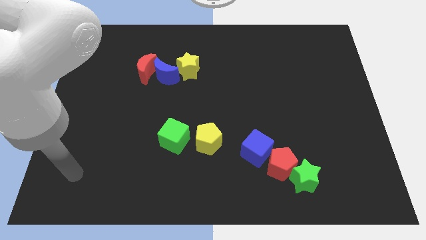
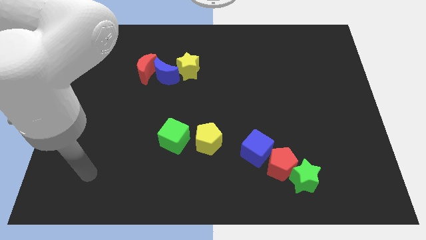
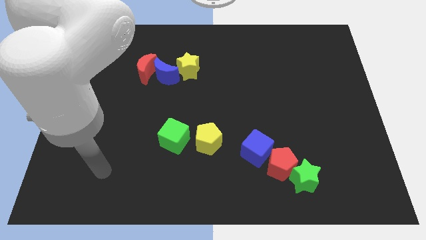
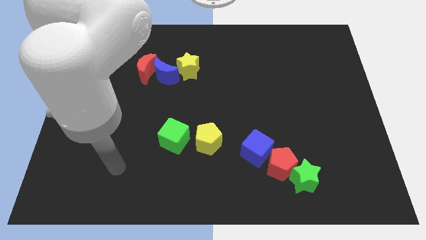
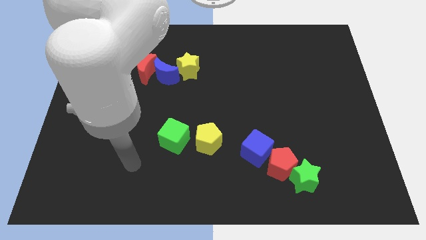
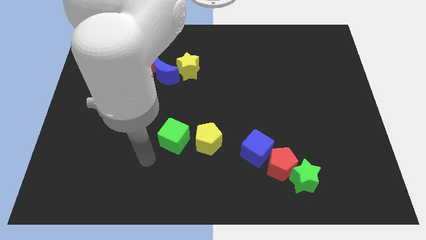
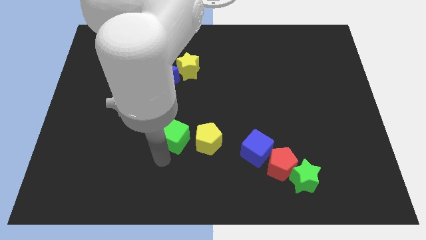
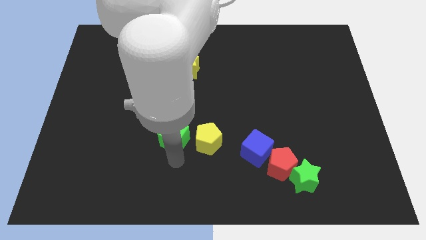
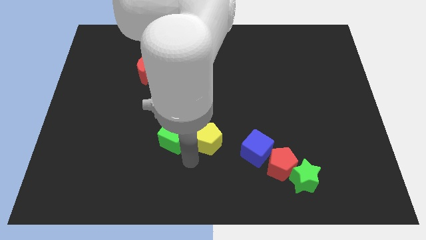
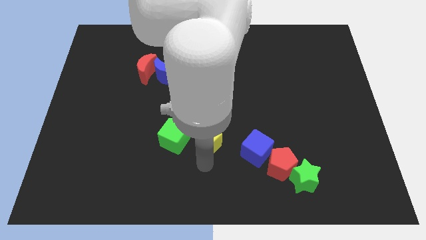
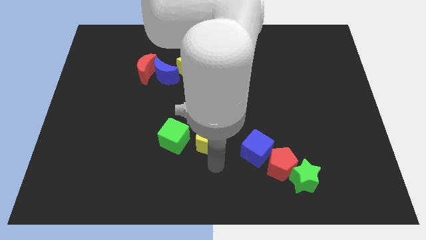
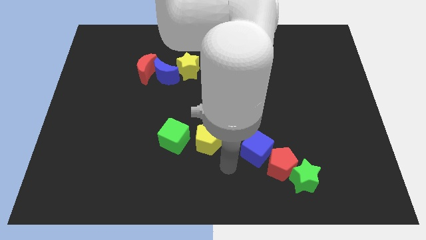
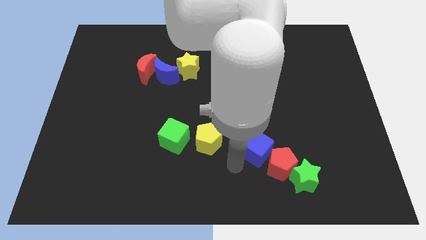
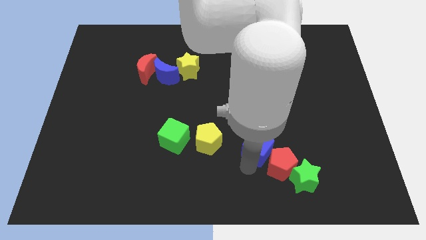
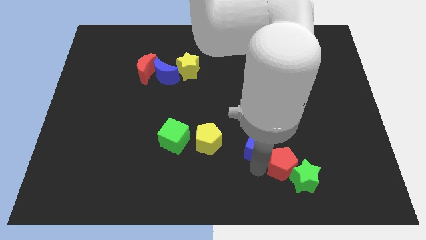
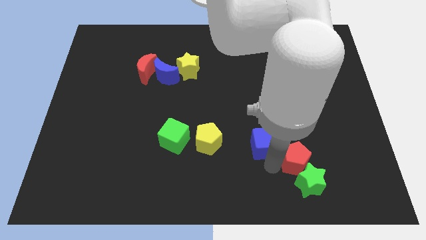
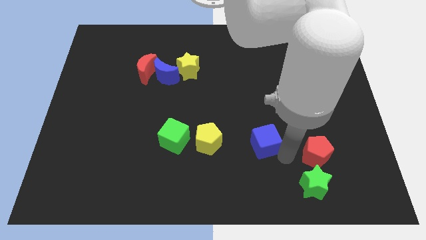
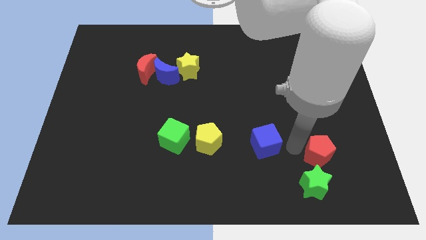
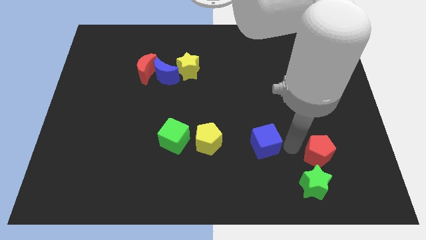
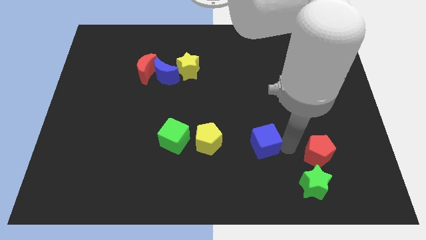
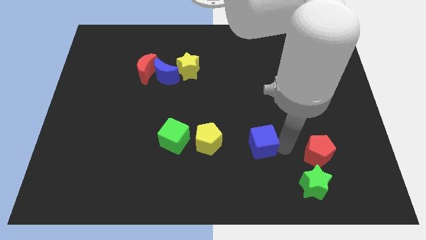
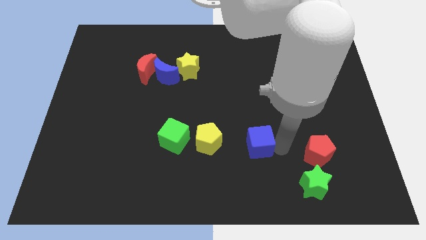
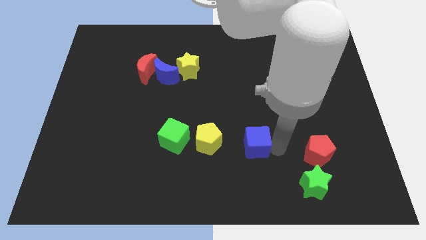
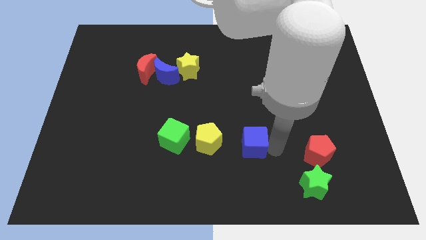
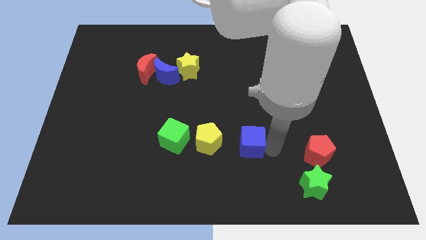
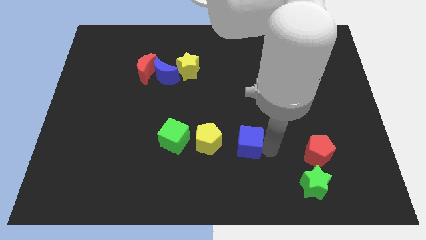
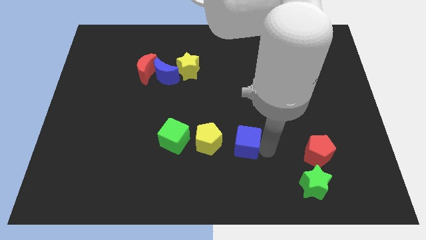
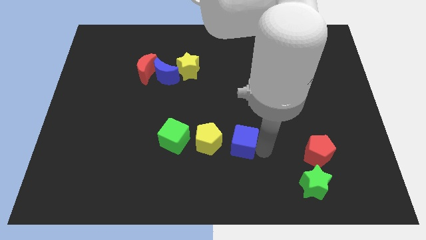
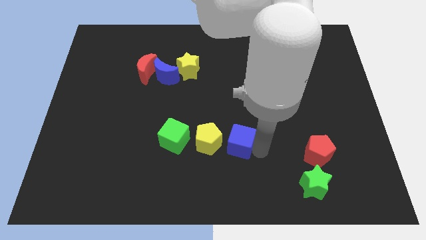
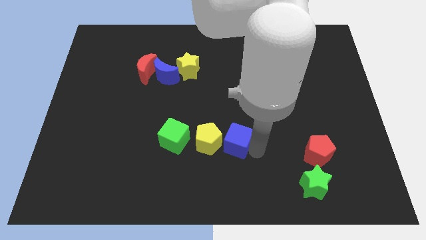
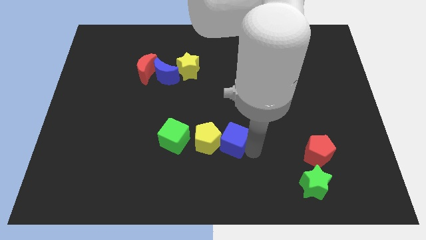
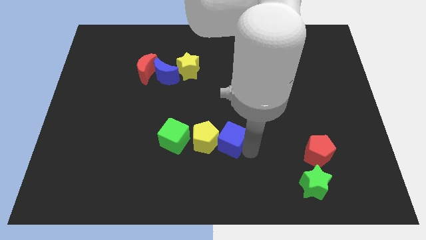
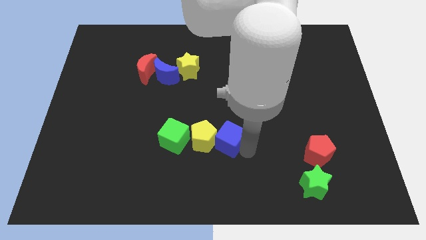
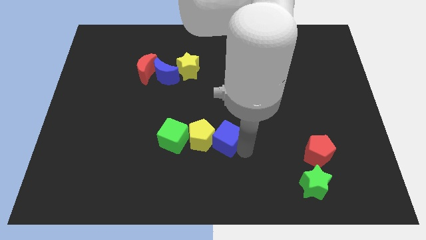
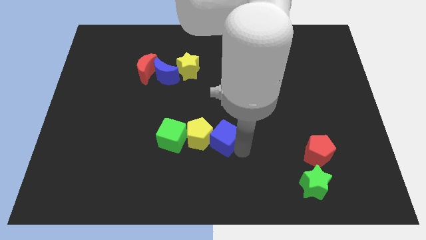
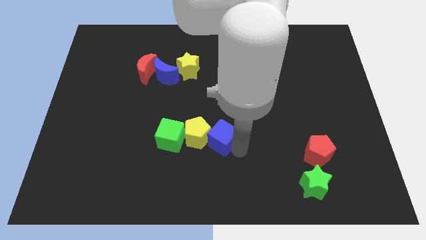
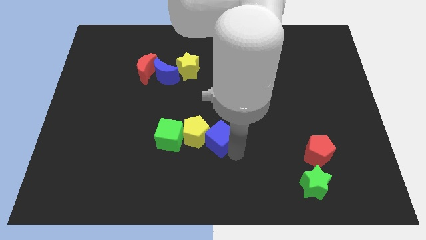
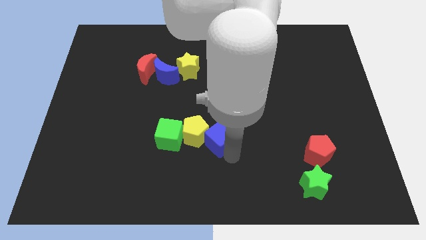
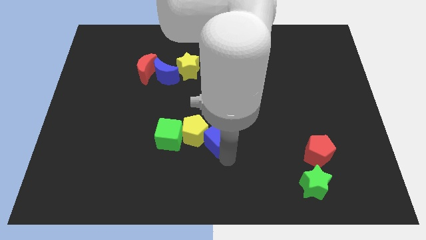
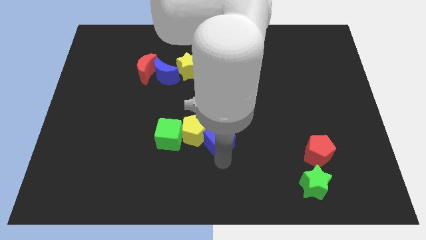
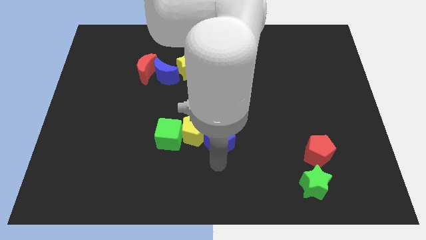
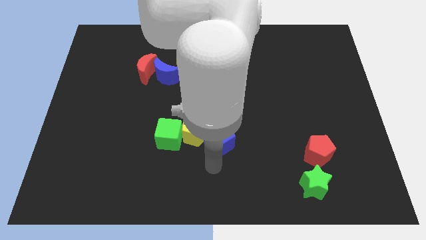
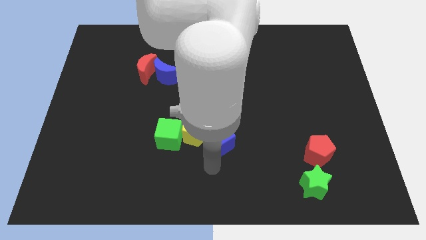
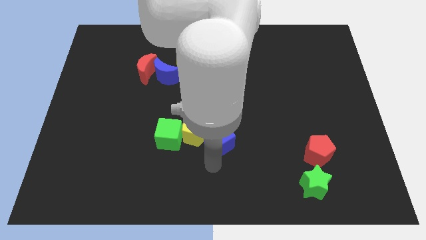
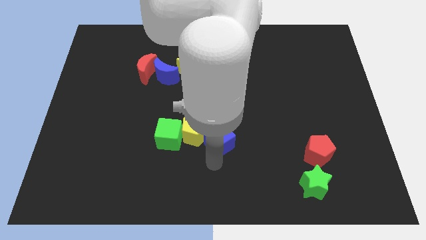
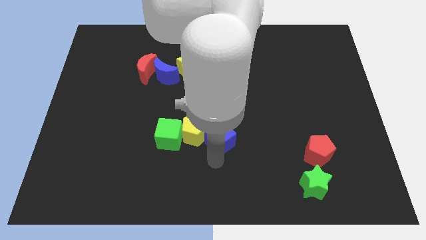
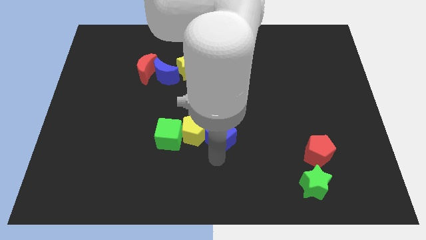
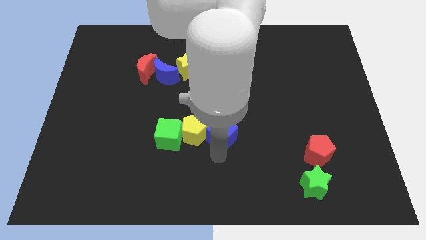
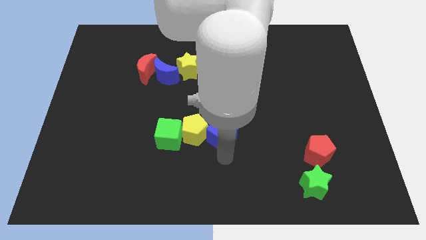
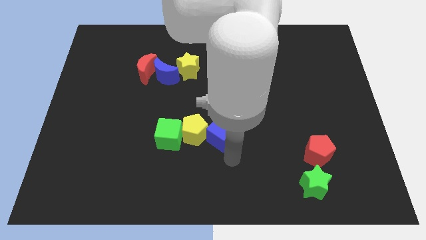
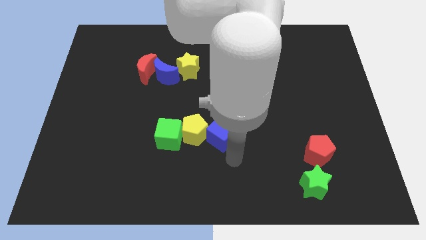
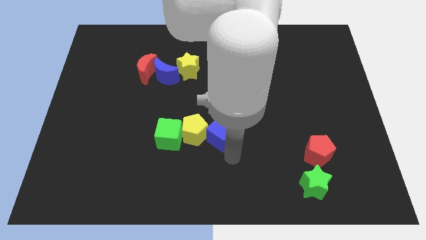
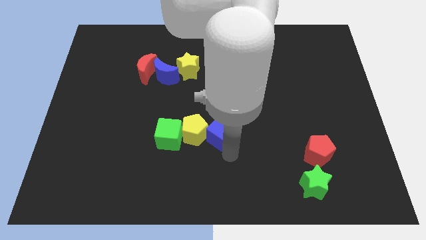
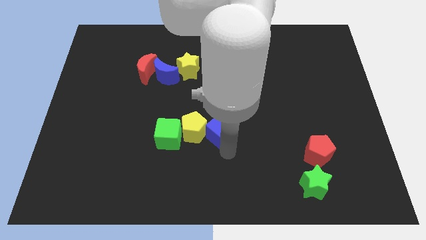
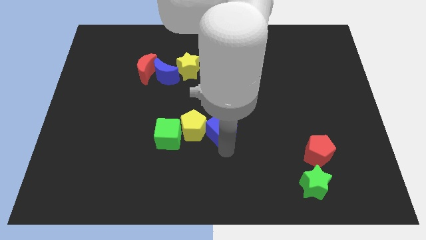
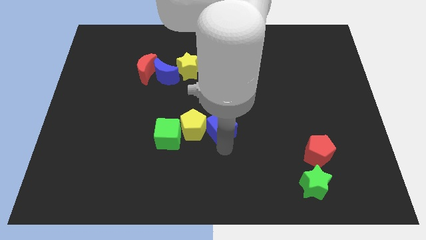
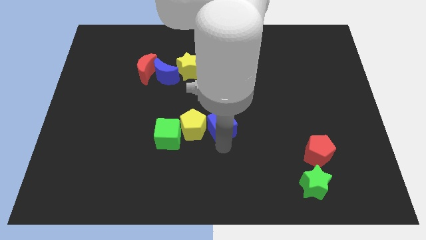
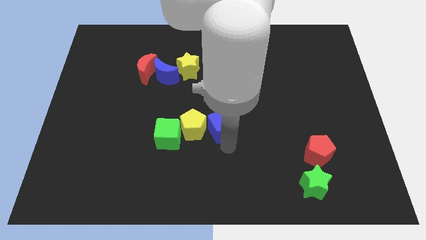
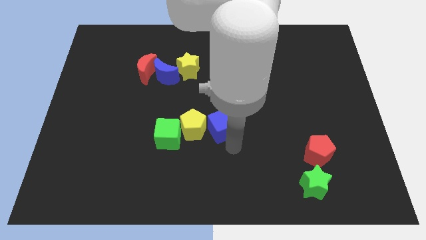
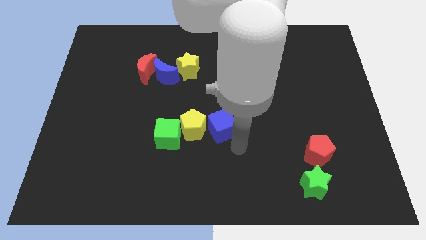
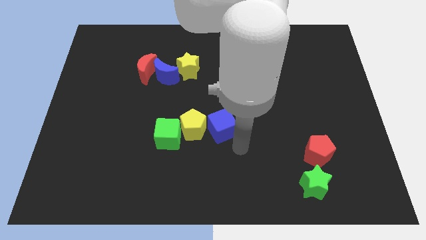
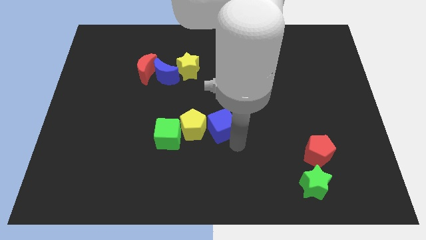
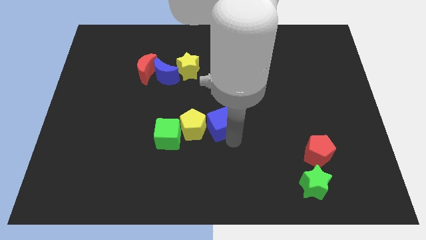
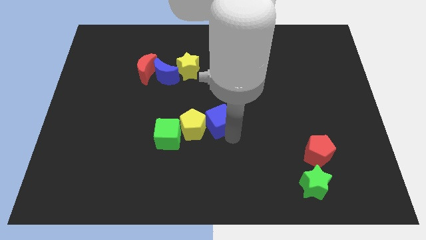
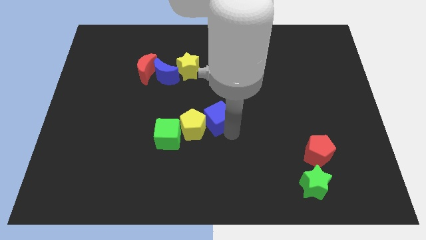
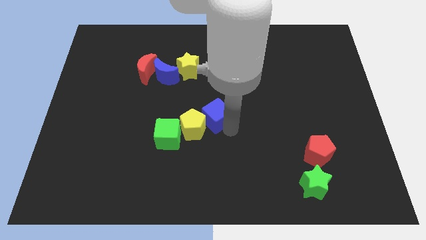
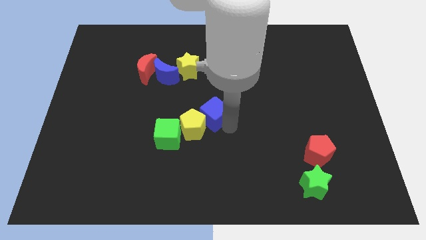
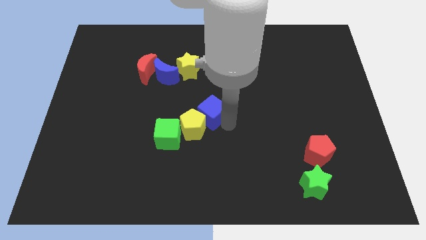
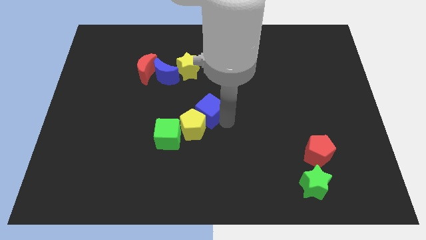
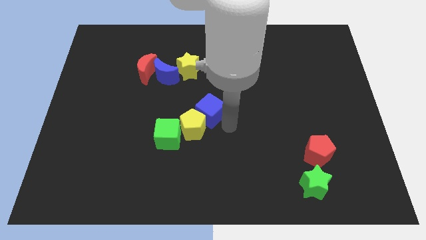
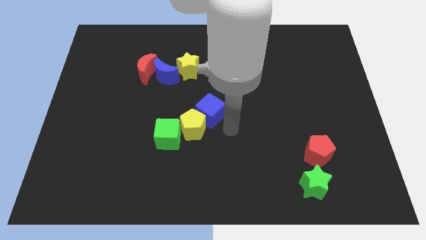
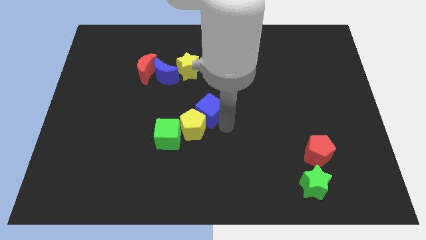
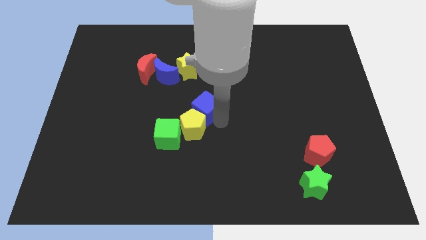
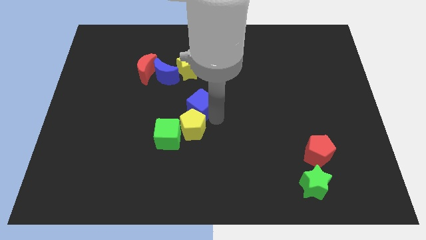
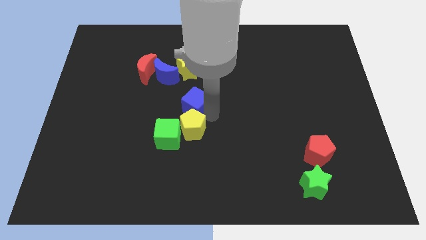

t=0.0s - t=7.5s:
push the blue cube to the bottom right side of the blue moon
